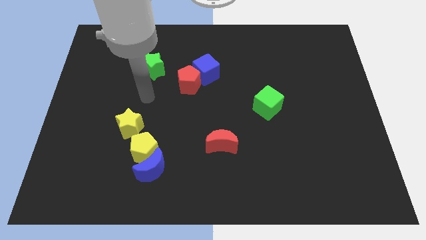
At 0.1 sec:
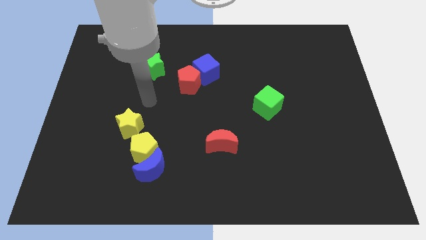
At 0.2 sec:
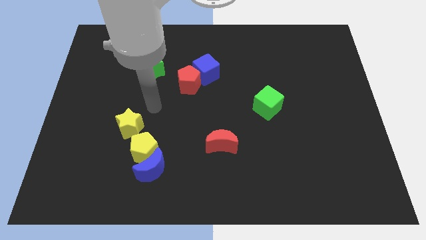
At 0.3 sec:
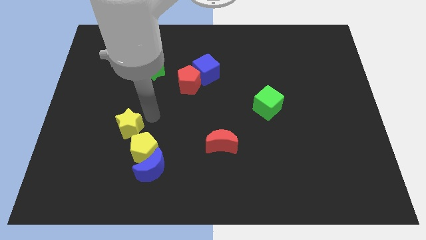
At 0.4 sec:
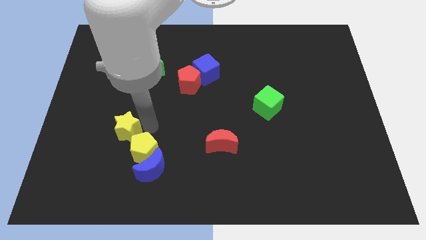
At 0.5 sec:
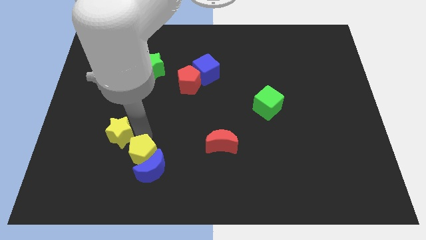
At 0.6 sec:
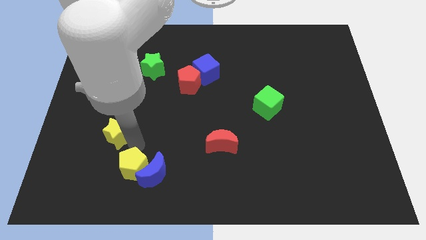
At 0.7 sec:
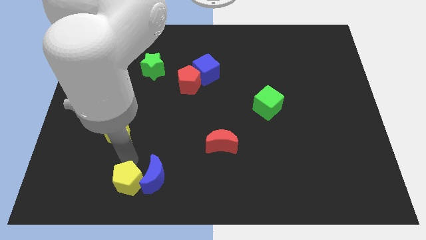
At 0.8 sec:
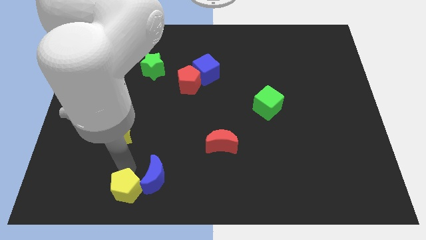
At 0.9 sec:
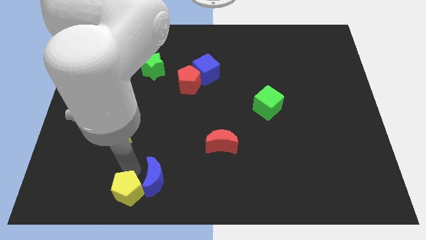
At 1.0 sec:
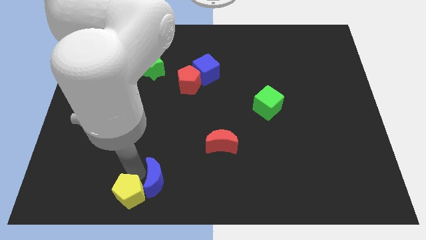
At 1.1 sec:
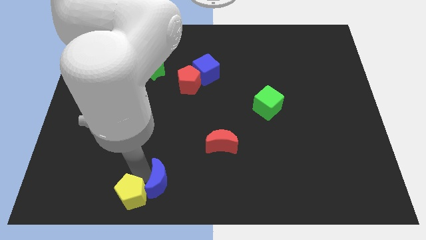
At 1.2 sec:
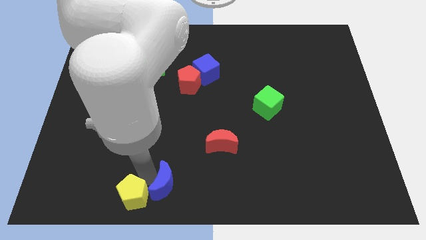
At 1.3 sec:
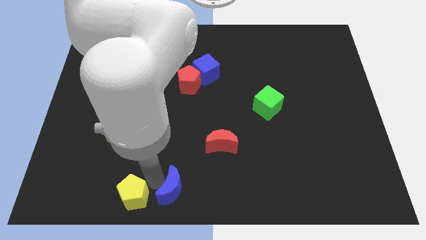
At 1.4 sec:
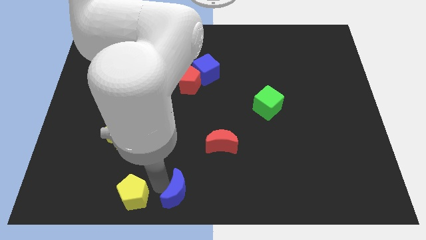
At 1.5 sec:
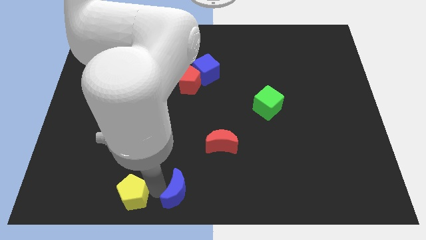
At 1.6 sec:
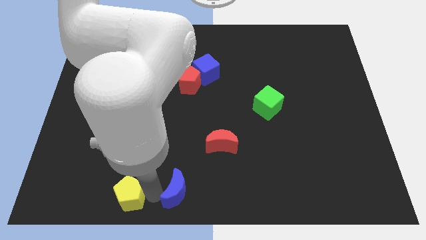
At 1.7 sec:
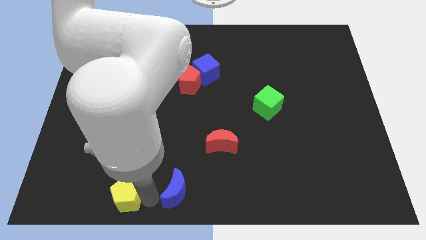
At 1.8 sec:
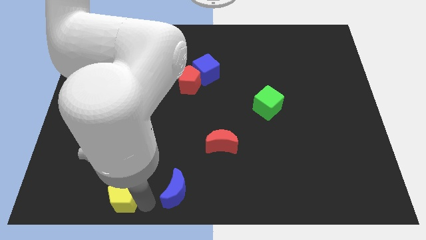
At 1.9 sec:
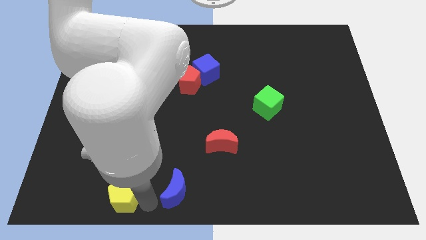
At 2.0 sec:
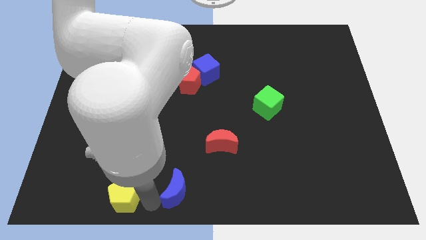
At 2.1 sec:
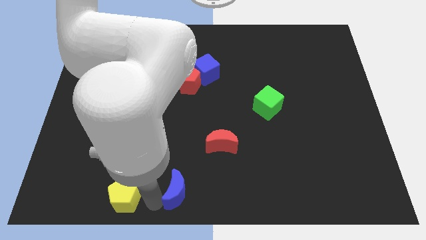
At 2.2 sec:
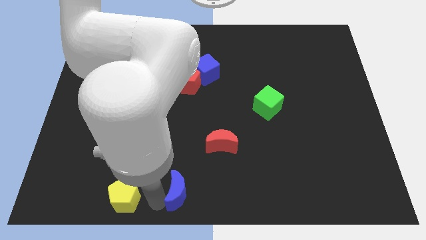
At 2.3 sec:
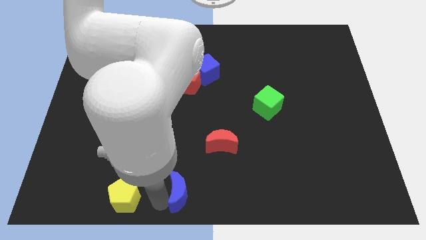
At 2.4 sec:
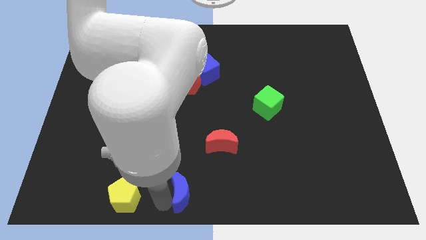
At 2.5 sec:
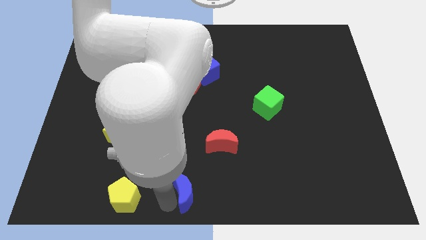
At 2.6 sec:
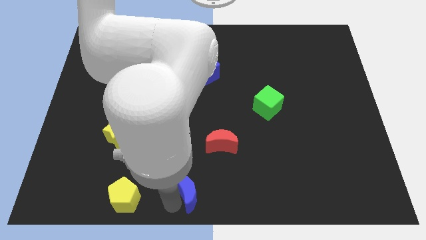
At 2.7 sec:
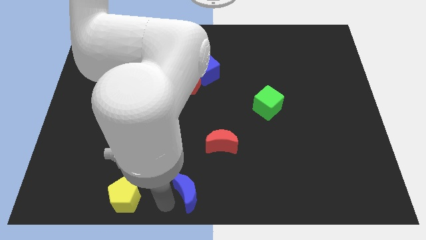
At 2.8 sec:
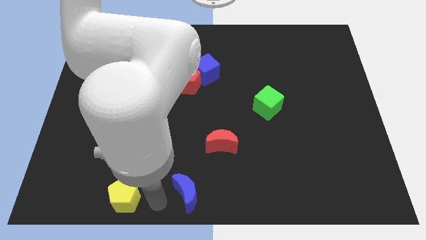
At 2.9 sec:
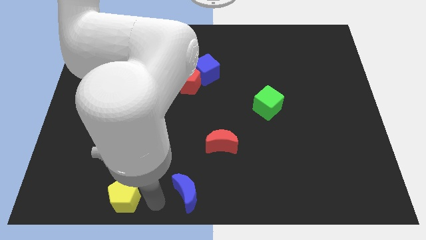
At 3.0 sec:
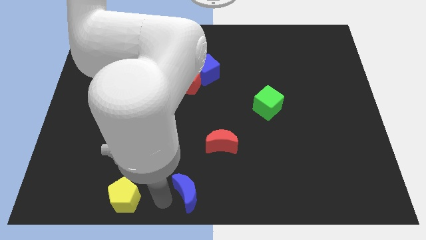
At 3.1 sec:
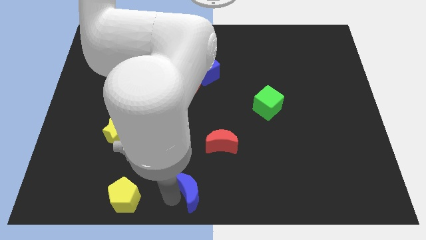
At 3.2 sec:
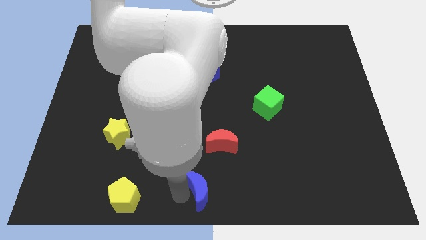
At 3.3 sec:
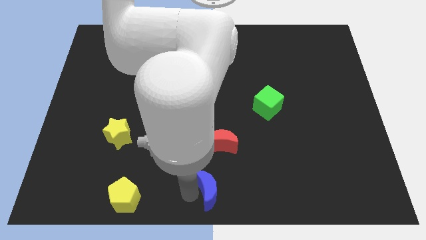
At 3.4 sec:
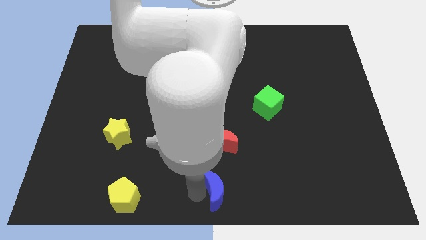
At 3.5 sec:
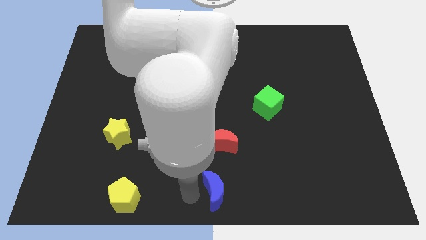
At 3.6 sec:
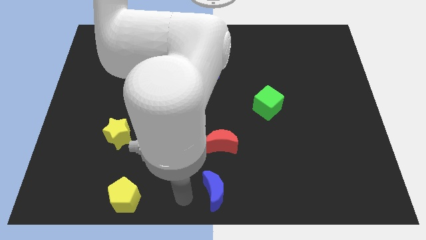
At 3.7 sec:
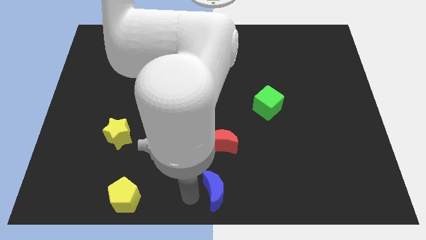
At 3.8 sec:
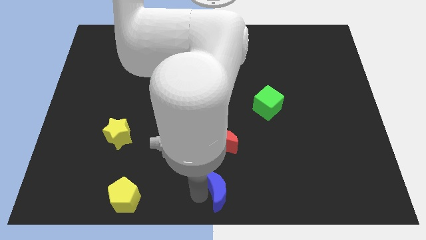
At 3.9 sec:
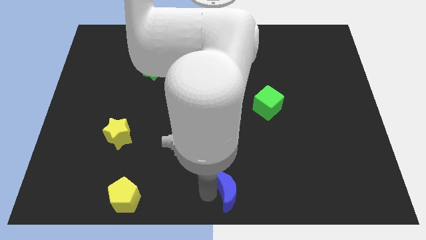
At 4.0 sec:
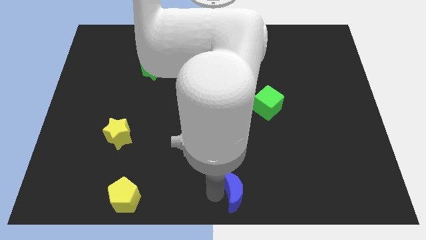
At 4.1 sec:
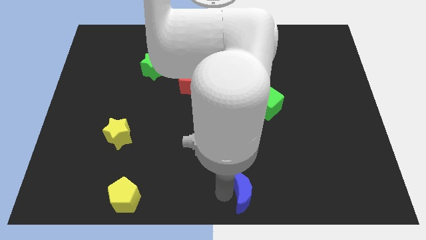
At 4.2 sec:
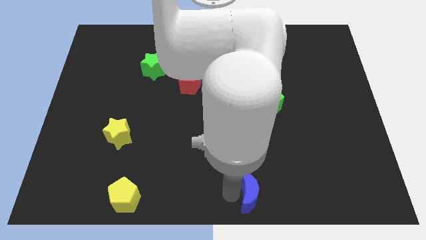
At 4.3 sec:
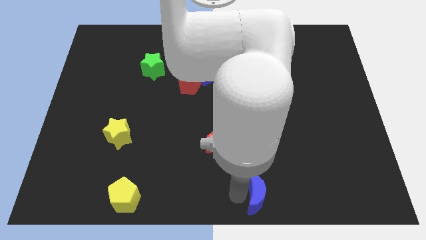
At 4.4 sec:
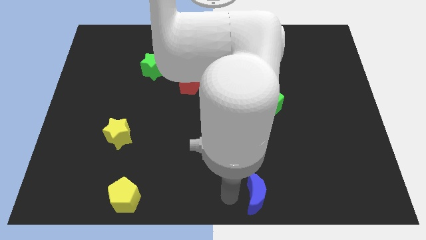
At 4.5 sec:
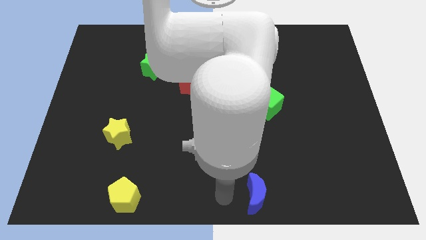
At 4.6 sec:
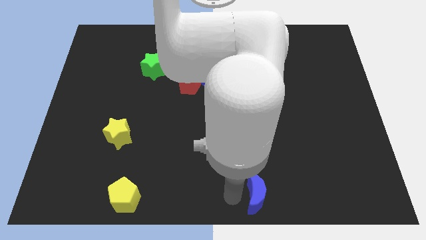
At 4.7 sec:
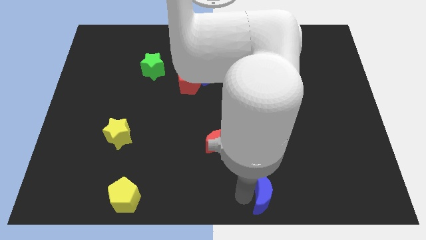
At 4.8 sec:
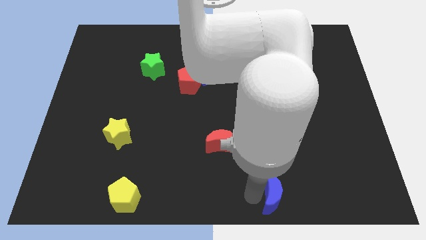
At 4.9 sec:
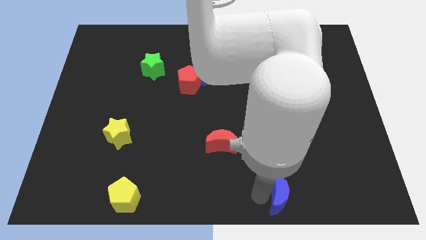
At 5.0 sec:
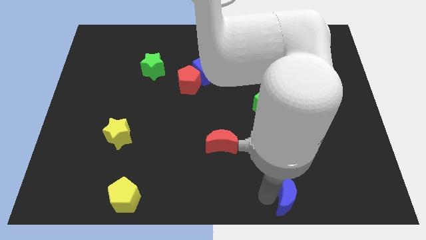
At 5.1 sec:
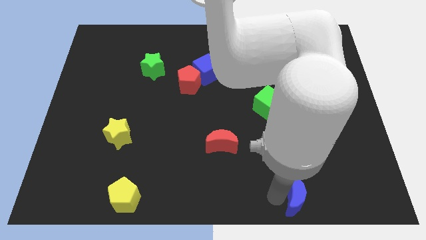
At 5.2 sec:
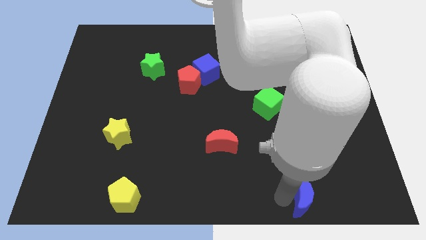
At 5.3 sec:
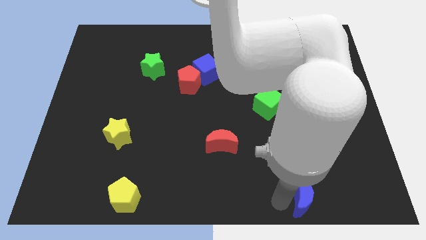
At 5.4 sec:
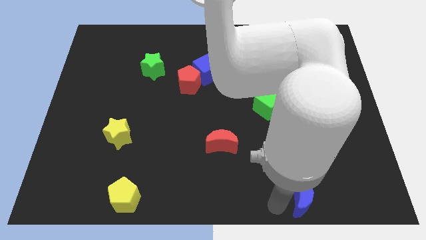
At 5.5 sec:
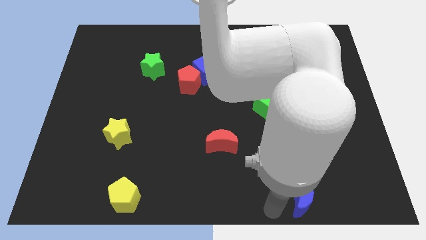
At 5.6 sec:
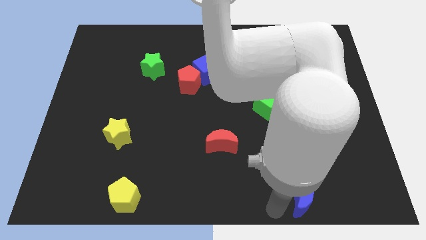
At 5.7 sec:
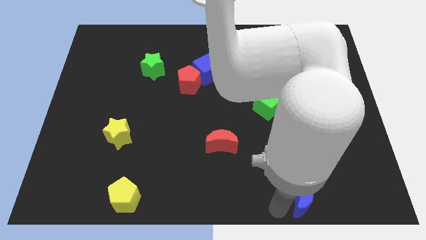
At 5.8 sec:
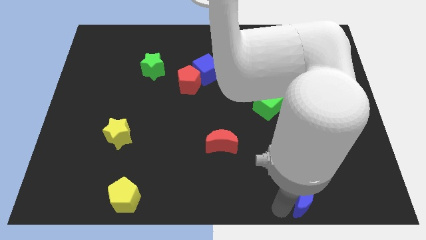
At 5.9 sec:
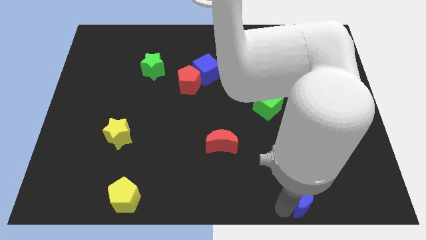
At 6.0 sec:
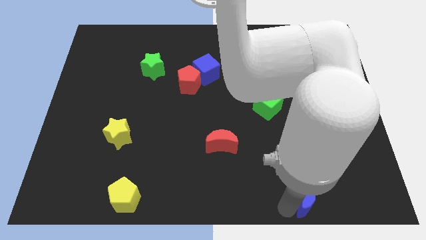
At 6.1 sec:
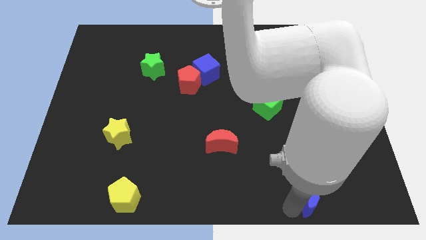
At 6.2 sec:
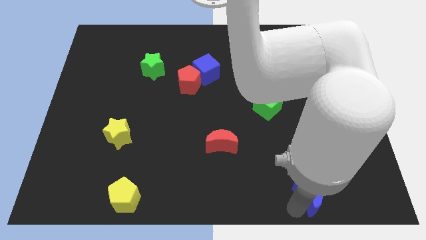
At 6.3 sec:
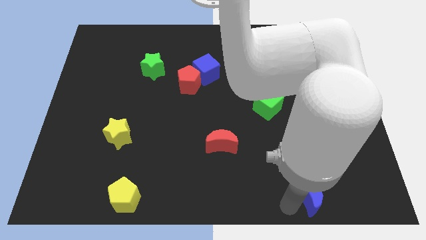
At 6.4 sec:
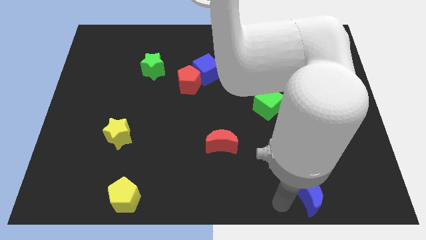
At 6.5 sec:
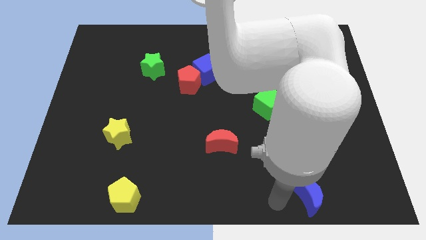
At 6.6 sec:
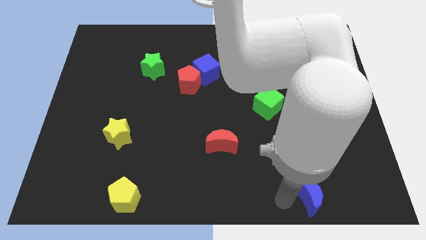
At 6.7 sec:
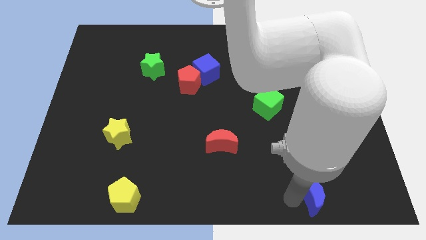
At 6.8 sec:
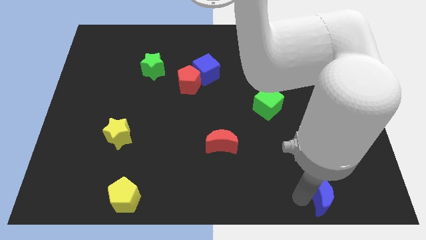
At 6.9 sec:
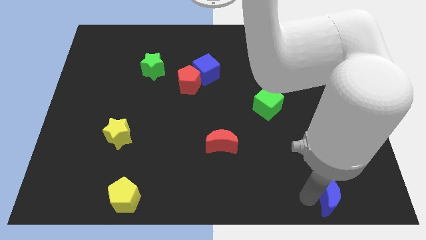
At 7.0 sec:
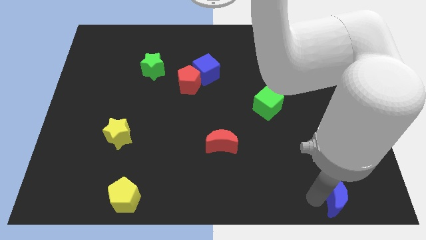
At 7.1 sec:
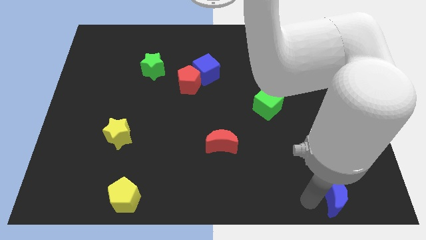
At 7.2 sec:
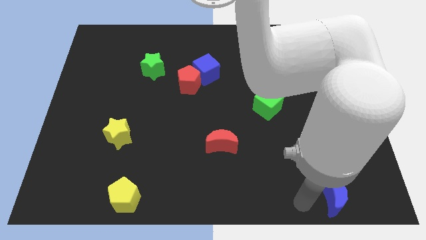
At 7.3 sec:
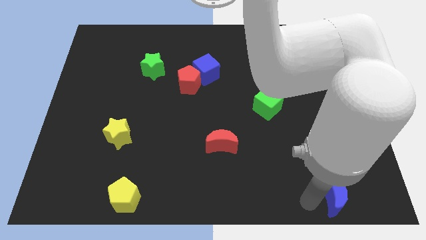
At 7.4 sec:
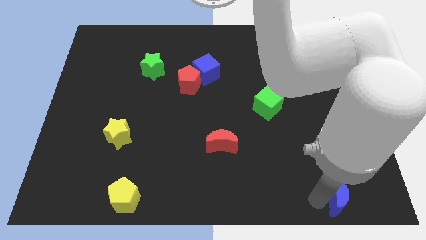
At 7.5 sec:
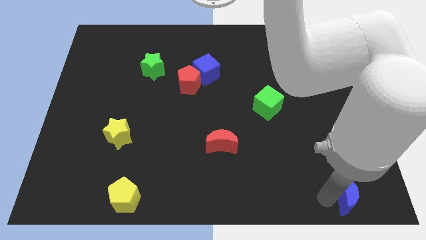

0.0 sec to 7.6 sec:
slide the blue moon to the bottom right of the board
